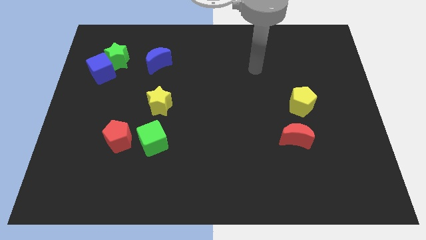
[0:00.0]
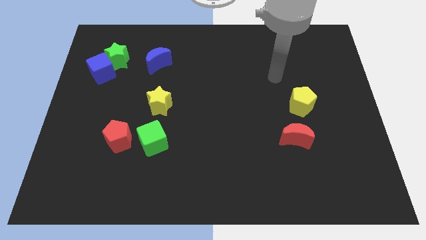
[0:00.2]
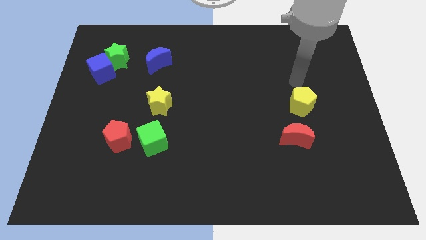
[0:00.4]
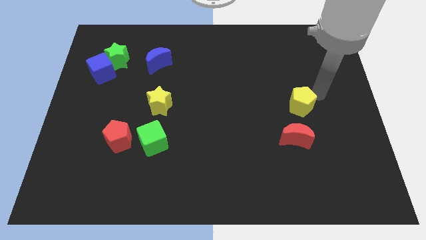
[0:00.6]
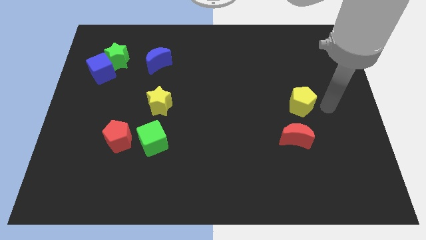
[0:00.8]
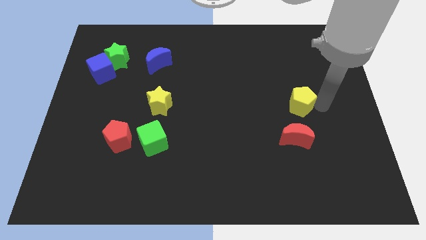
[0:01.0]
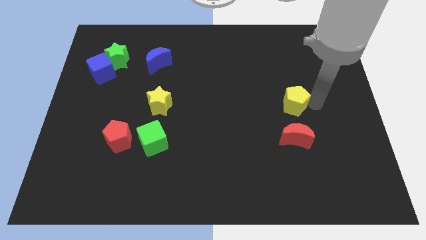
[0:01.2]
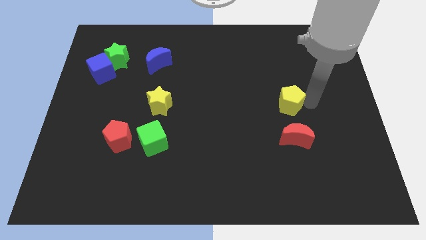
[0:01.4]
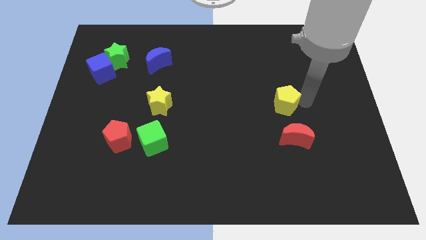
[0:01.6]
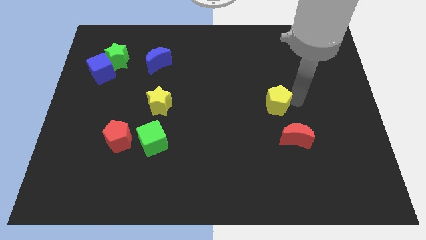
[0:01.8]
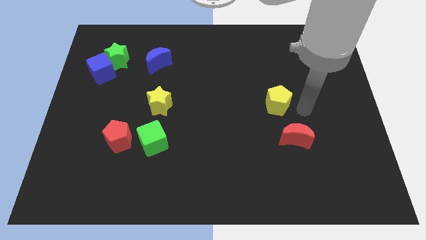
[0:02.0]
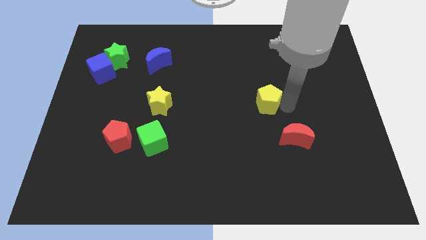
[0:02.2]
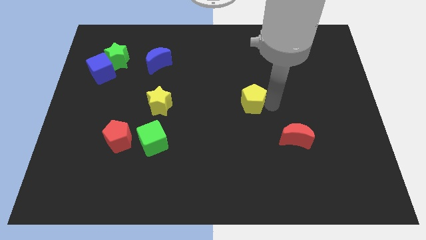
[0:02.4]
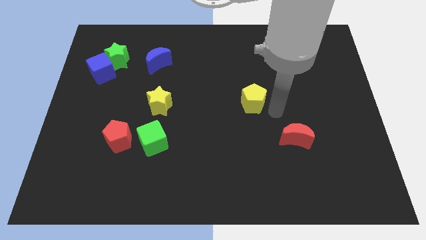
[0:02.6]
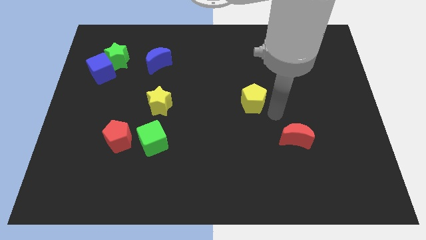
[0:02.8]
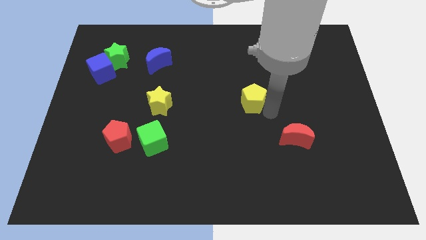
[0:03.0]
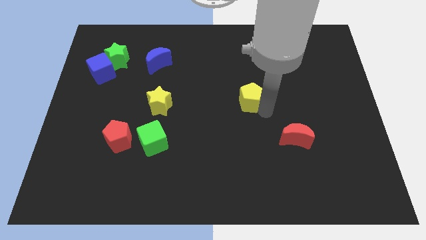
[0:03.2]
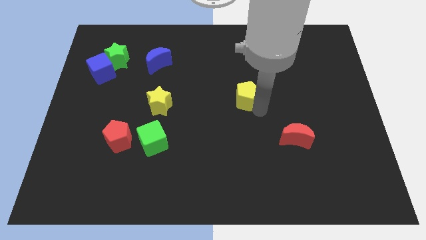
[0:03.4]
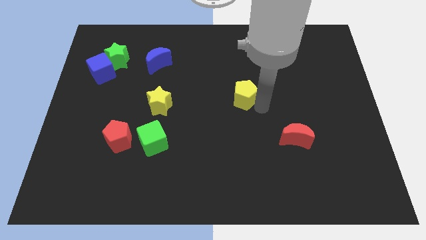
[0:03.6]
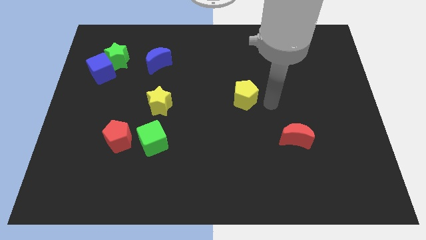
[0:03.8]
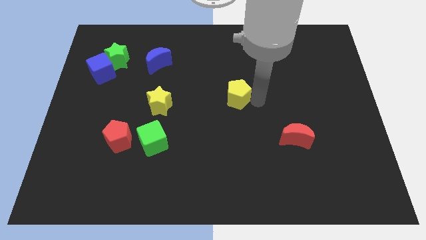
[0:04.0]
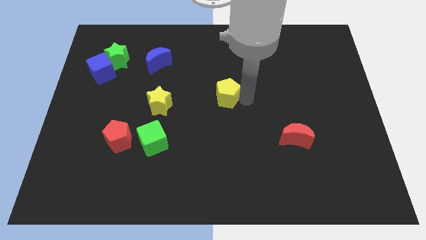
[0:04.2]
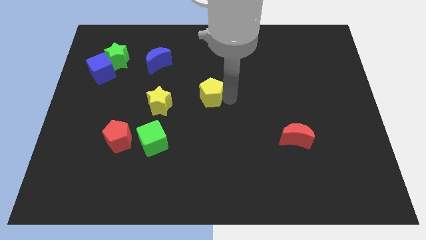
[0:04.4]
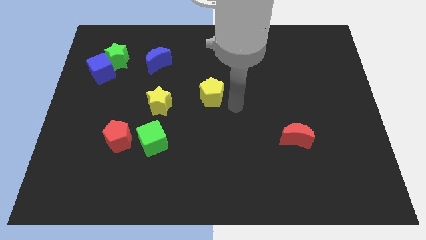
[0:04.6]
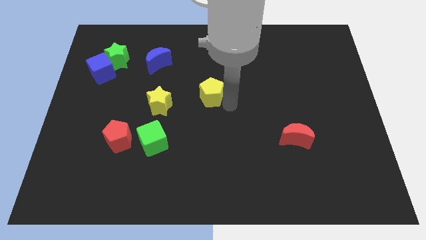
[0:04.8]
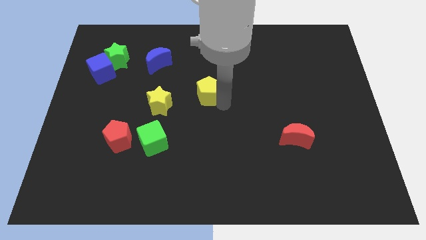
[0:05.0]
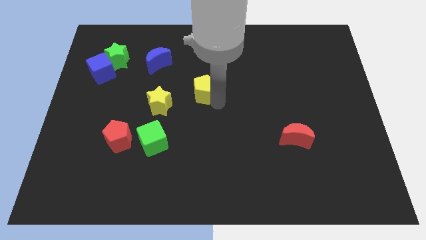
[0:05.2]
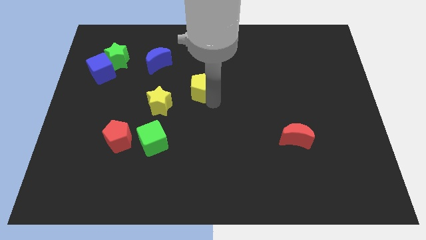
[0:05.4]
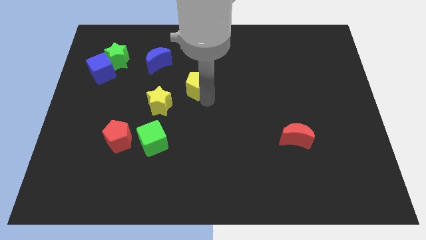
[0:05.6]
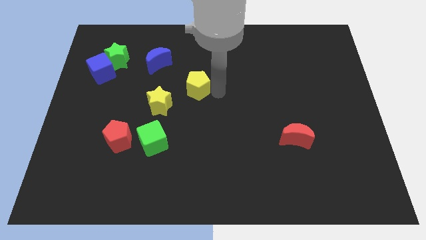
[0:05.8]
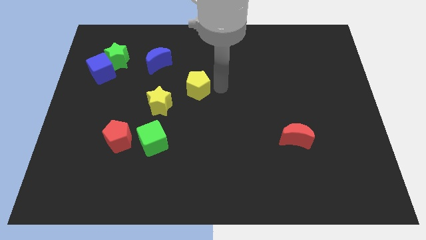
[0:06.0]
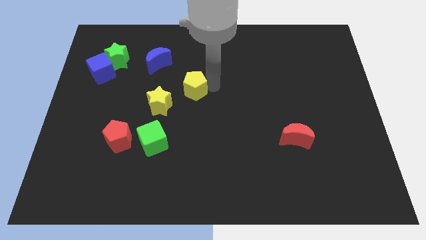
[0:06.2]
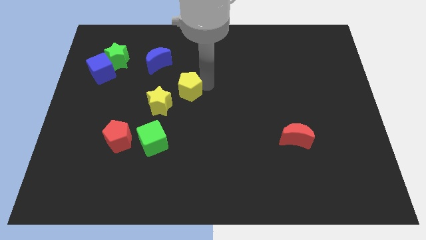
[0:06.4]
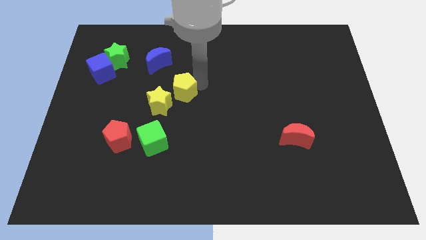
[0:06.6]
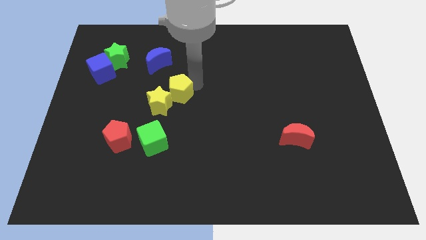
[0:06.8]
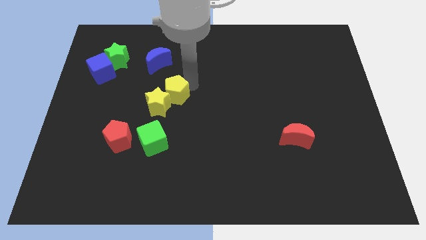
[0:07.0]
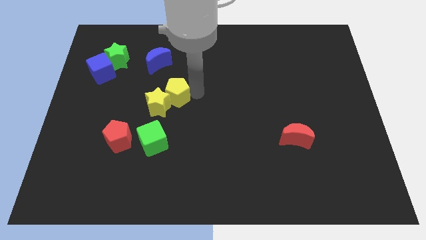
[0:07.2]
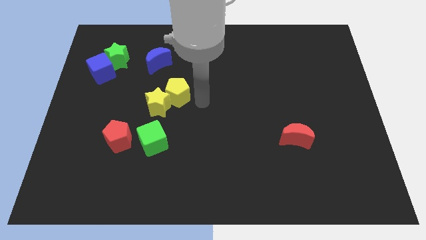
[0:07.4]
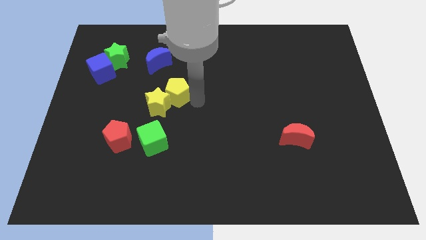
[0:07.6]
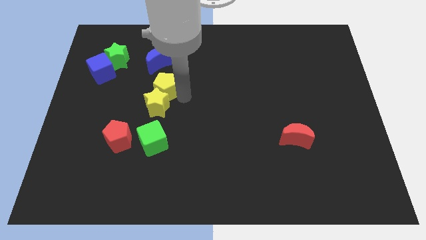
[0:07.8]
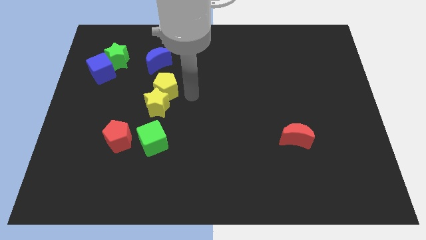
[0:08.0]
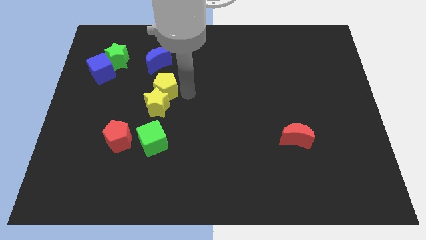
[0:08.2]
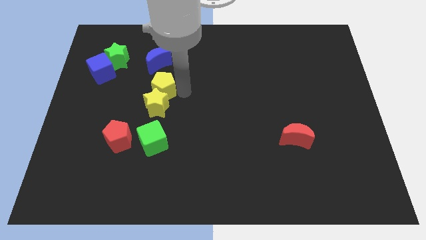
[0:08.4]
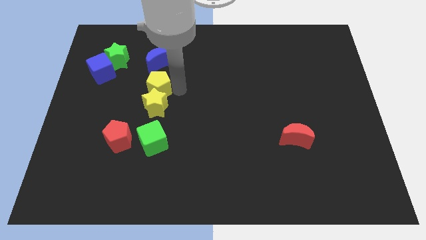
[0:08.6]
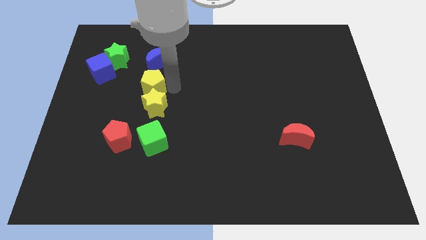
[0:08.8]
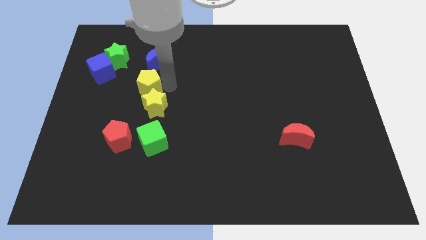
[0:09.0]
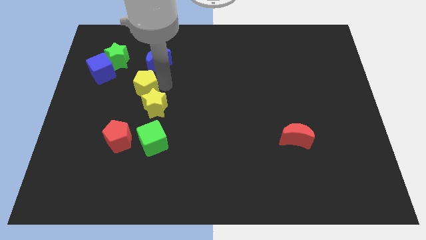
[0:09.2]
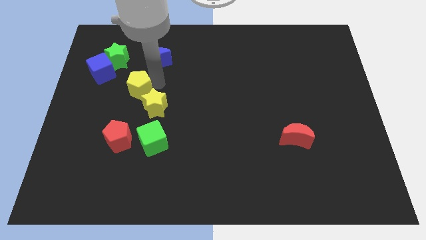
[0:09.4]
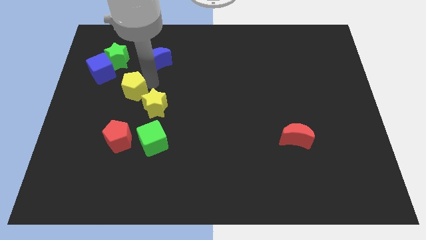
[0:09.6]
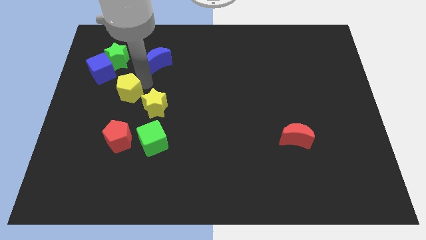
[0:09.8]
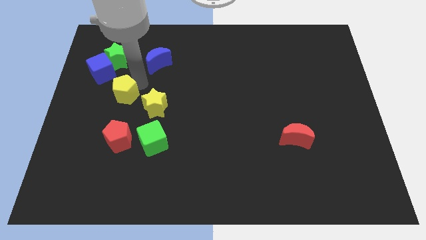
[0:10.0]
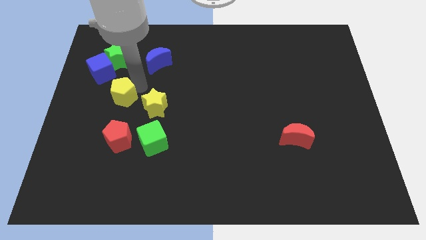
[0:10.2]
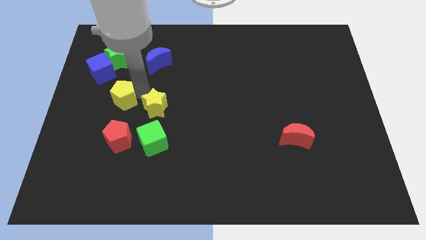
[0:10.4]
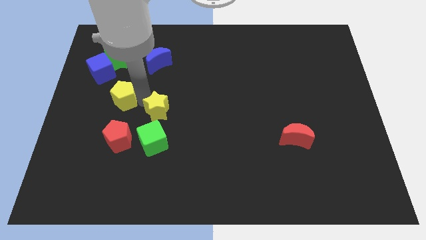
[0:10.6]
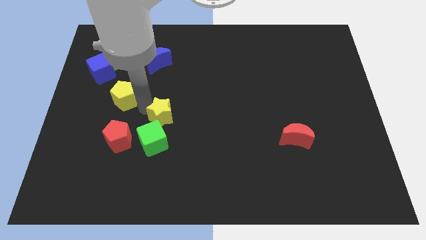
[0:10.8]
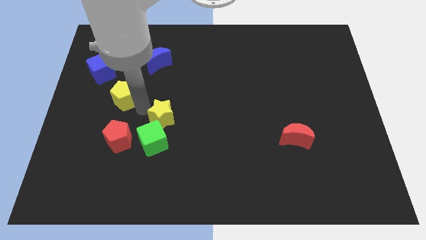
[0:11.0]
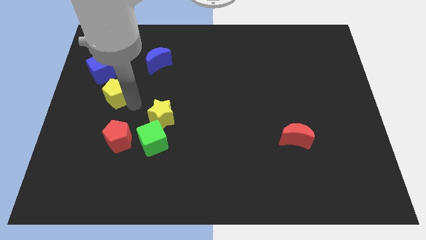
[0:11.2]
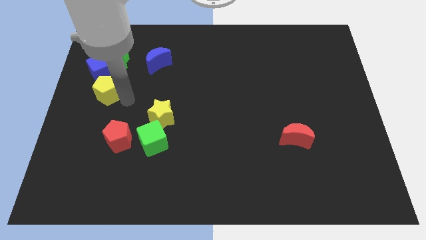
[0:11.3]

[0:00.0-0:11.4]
move the yellow pentagon to the left side of the board
